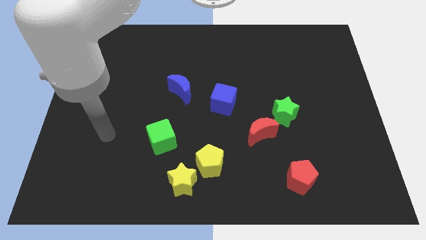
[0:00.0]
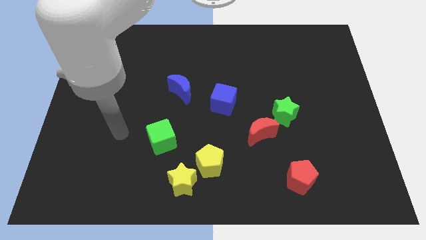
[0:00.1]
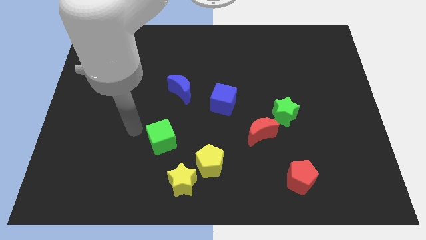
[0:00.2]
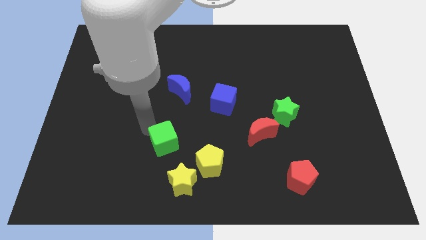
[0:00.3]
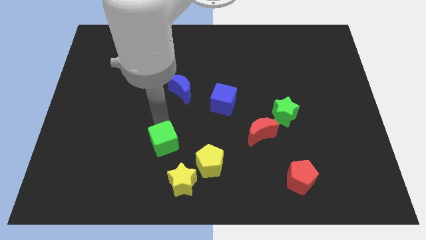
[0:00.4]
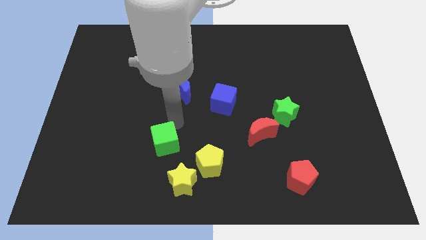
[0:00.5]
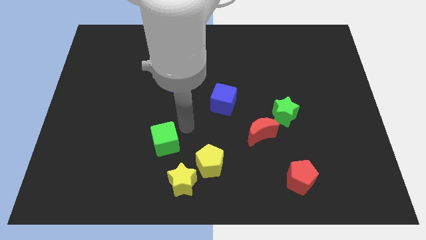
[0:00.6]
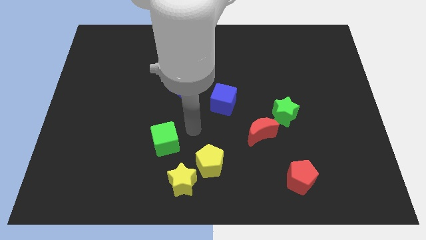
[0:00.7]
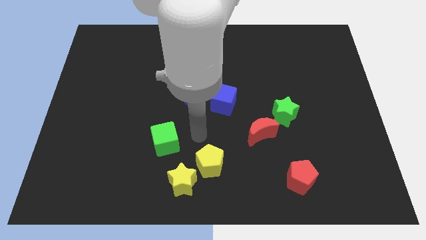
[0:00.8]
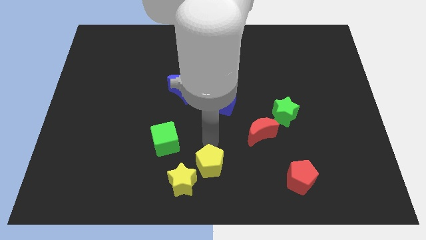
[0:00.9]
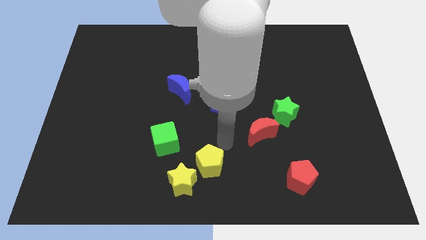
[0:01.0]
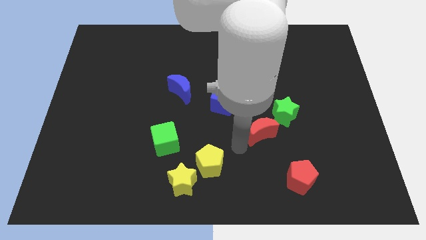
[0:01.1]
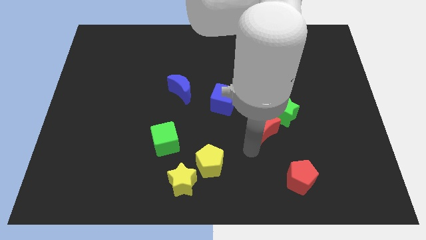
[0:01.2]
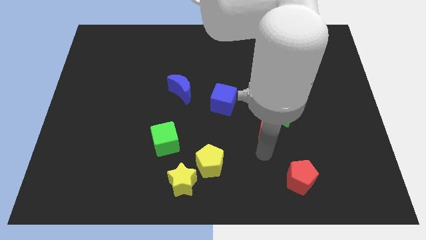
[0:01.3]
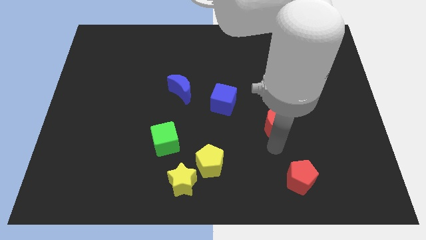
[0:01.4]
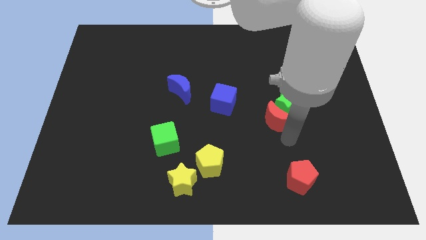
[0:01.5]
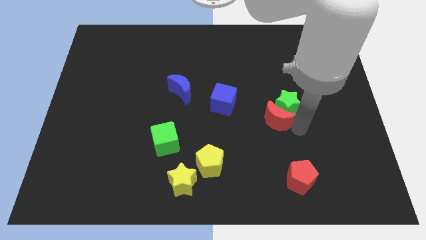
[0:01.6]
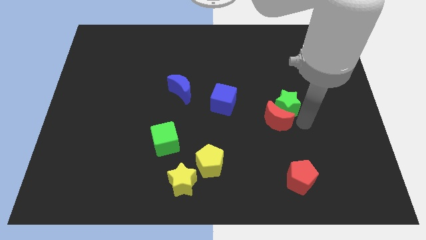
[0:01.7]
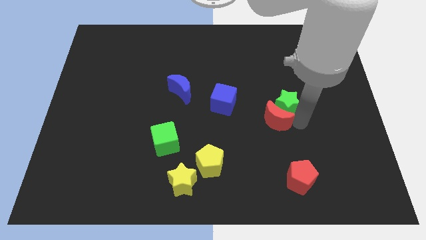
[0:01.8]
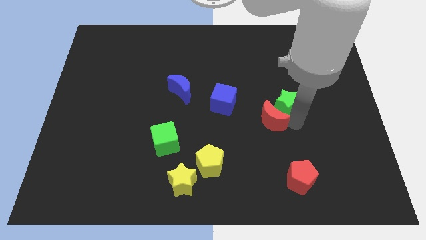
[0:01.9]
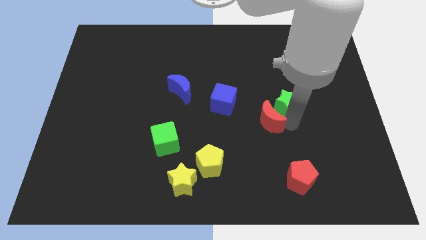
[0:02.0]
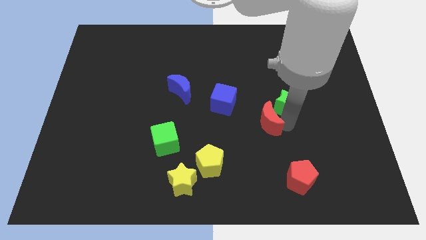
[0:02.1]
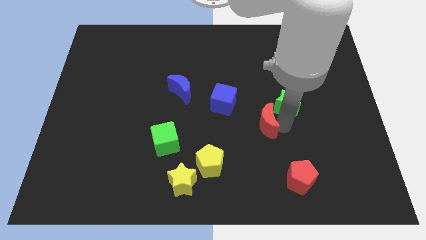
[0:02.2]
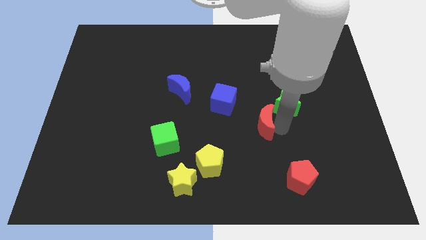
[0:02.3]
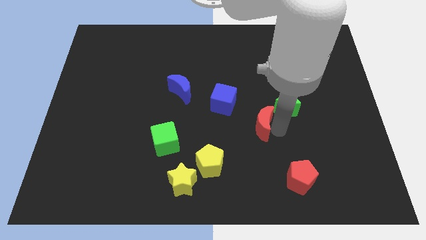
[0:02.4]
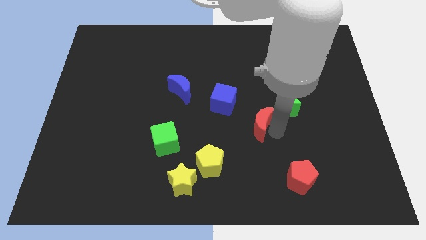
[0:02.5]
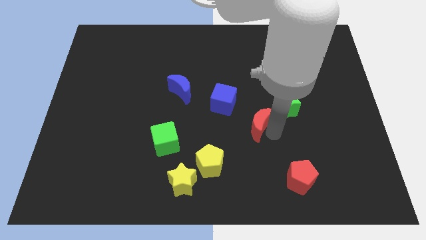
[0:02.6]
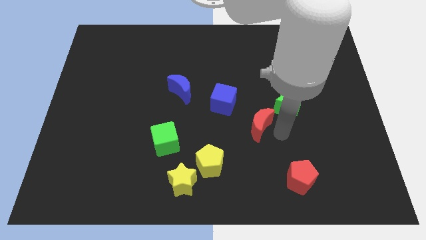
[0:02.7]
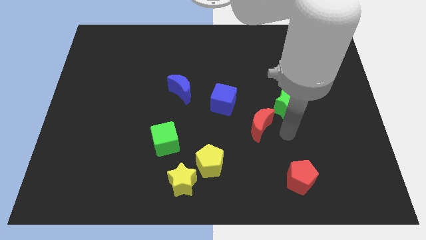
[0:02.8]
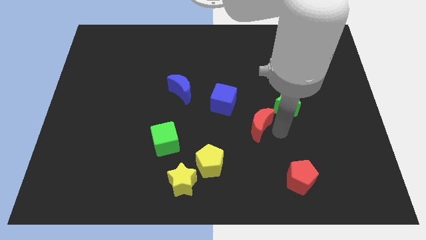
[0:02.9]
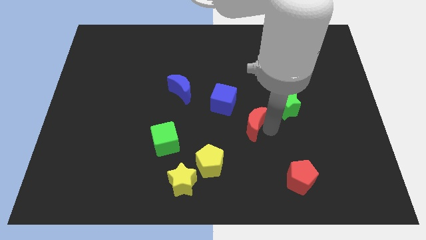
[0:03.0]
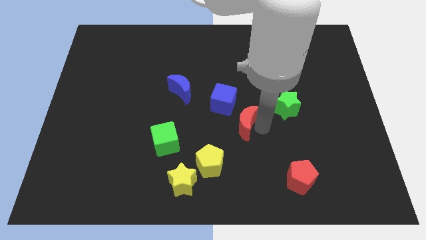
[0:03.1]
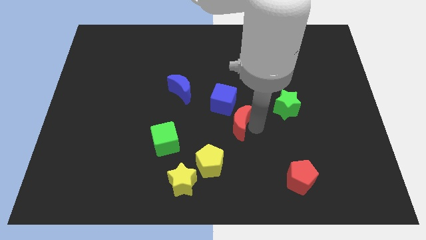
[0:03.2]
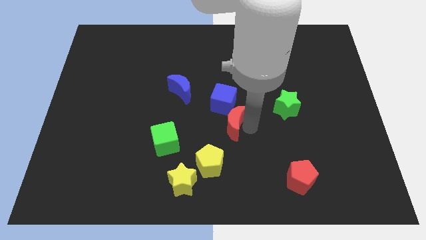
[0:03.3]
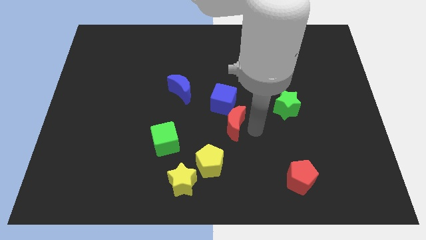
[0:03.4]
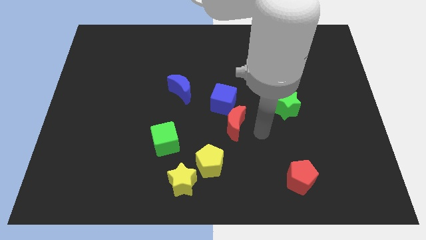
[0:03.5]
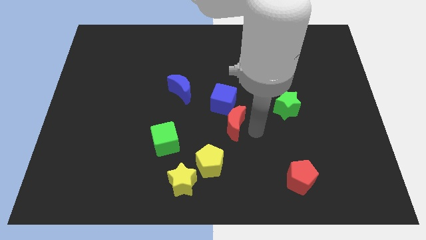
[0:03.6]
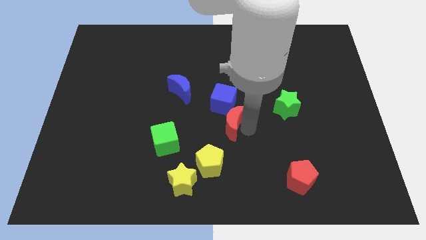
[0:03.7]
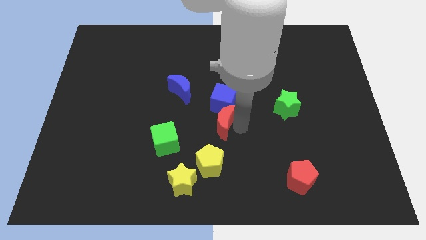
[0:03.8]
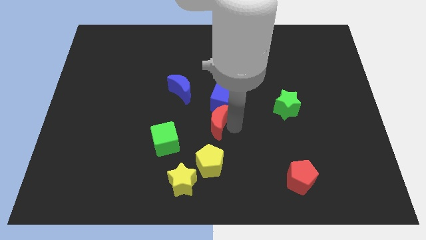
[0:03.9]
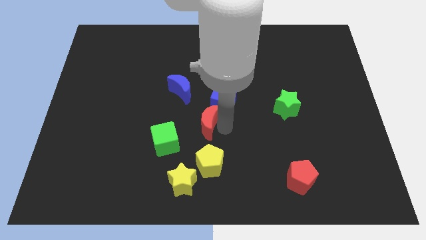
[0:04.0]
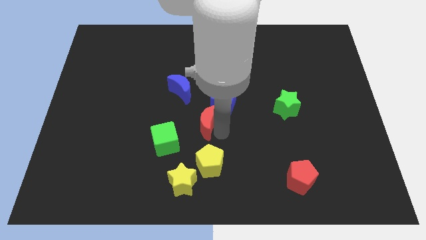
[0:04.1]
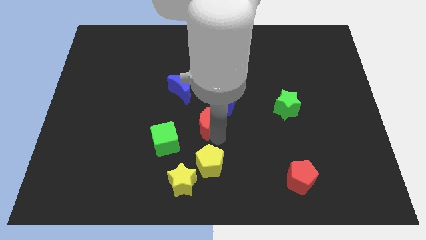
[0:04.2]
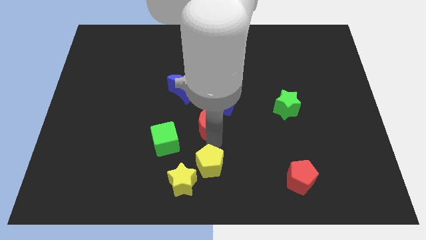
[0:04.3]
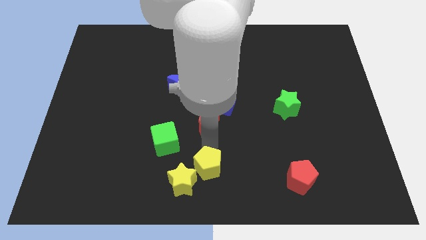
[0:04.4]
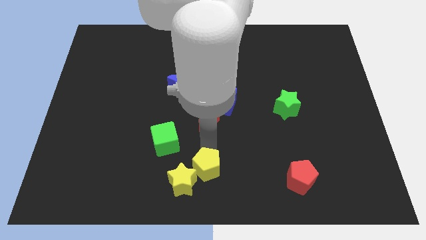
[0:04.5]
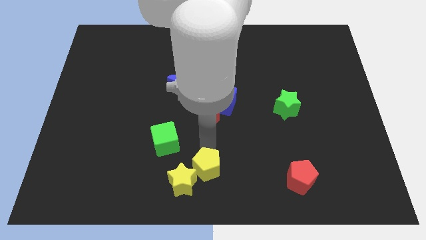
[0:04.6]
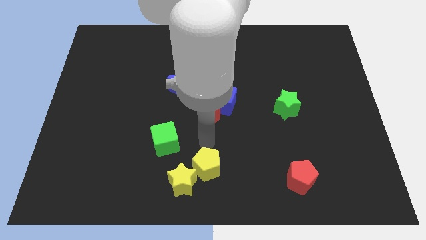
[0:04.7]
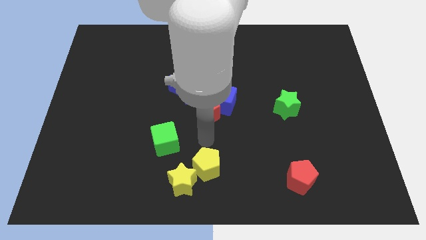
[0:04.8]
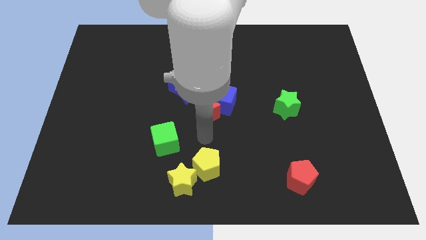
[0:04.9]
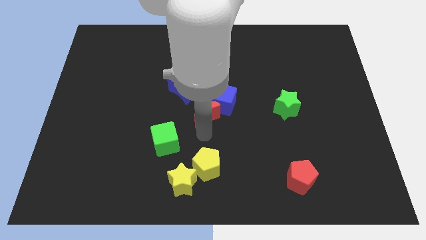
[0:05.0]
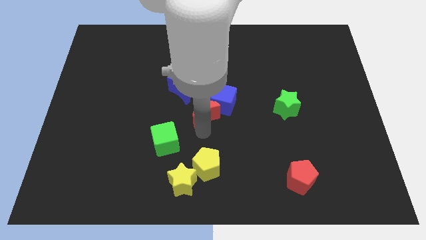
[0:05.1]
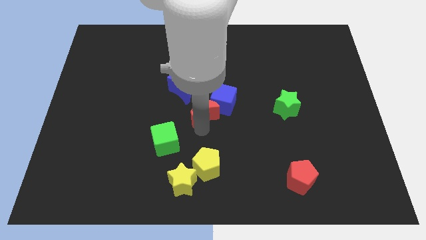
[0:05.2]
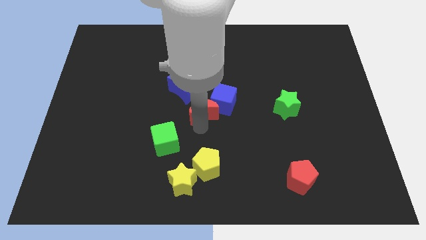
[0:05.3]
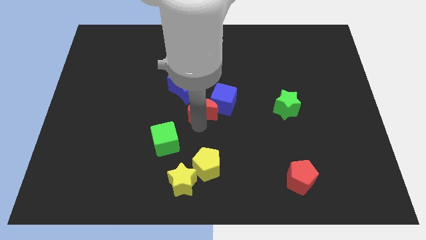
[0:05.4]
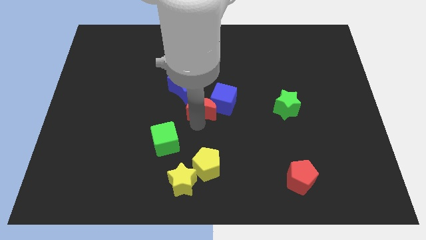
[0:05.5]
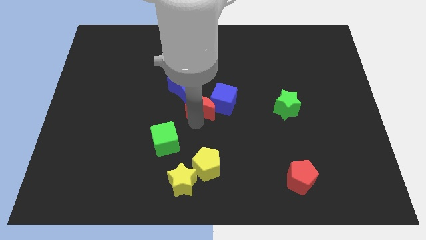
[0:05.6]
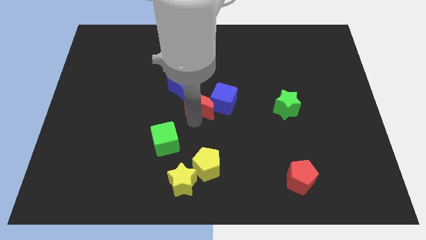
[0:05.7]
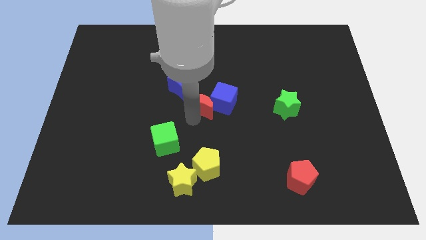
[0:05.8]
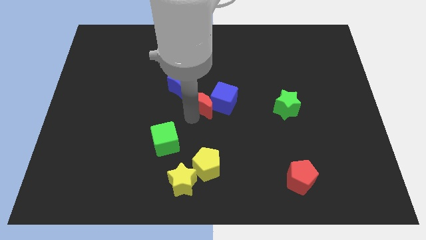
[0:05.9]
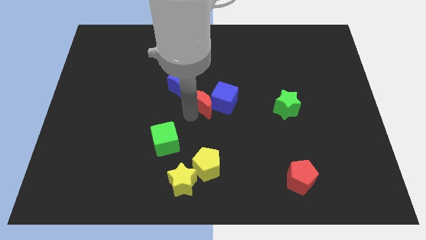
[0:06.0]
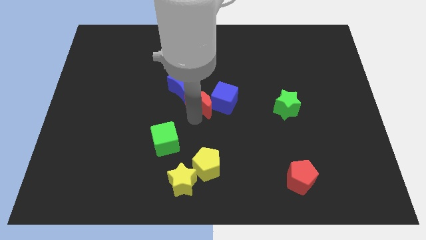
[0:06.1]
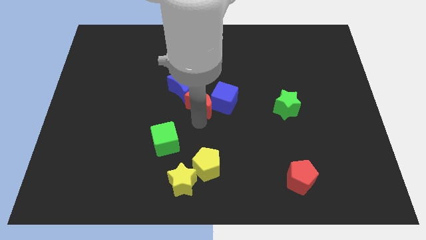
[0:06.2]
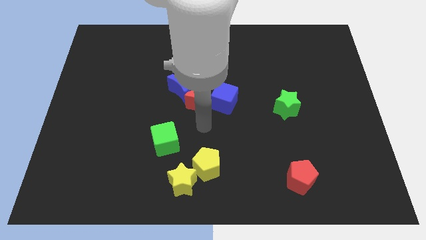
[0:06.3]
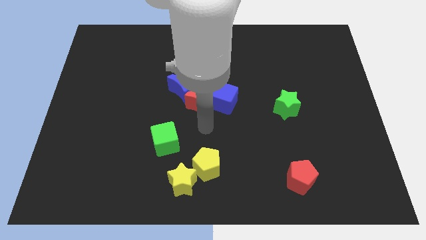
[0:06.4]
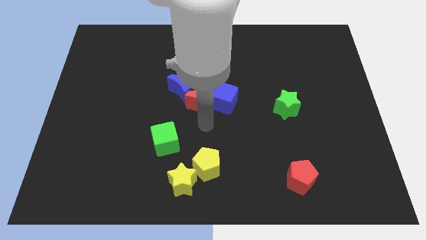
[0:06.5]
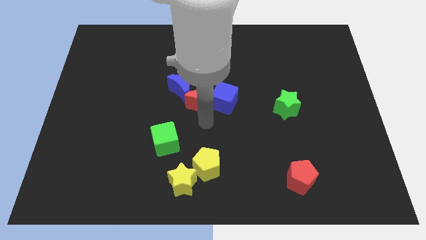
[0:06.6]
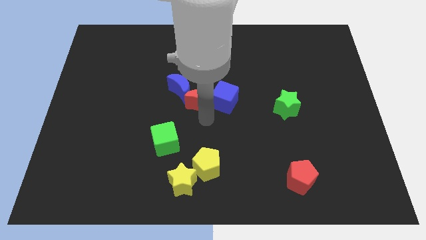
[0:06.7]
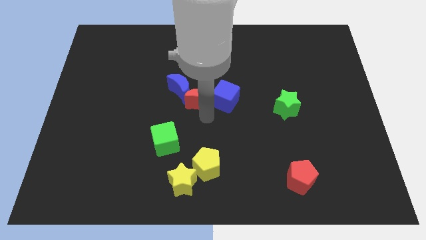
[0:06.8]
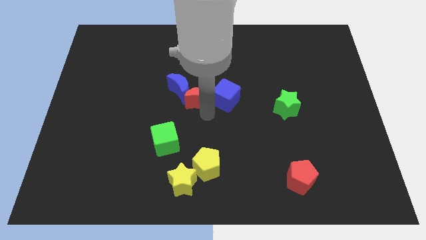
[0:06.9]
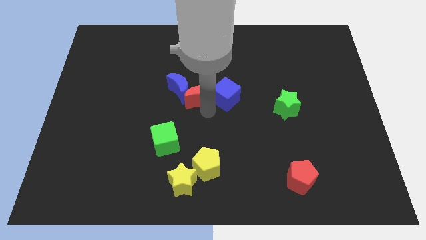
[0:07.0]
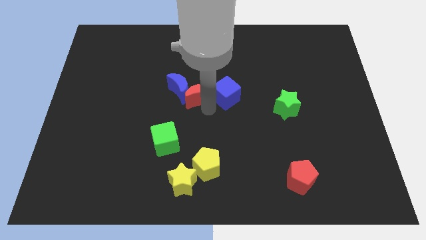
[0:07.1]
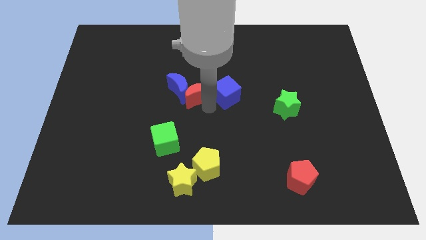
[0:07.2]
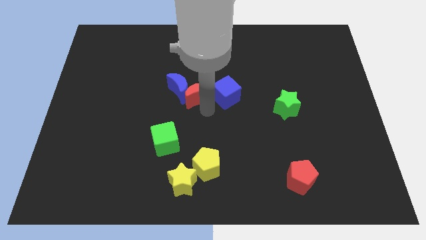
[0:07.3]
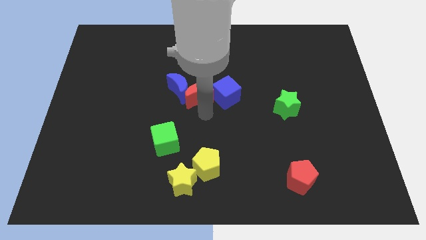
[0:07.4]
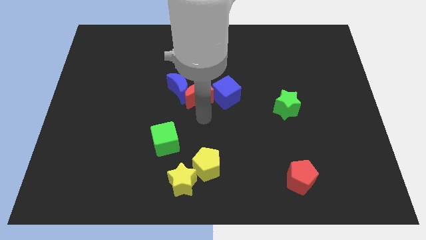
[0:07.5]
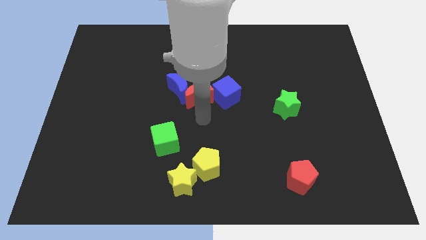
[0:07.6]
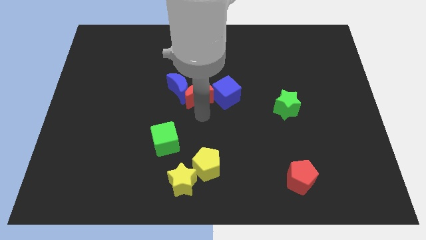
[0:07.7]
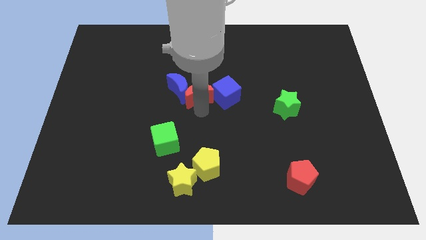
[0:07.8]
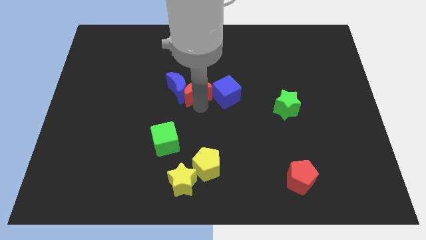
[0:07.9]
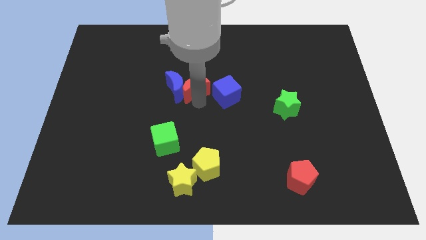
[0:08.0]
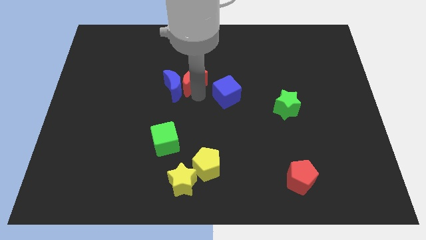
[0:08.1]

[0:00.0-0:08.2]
slide the red moon up and to the left diagonally
